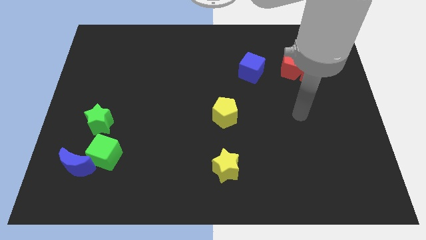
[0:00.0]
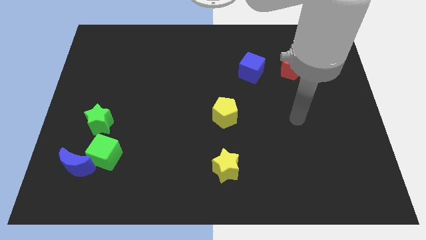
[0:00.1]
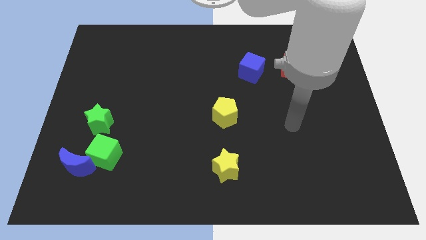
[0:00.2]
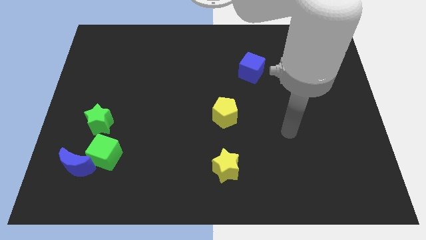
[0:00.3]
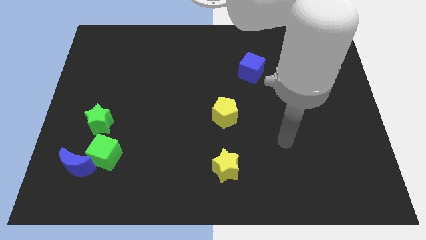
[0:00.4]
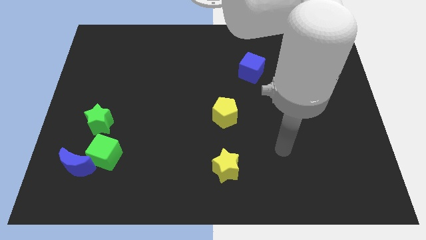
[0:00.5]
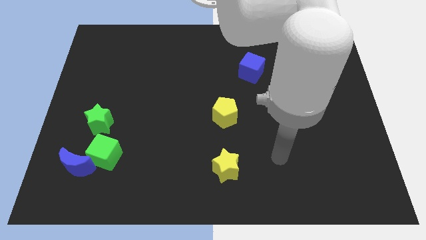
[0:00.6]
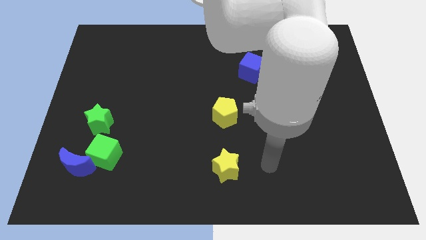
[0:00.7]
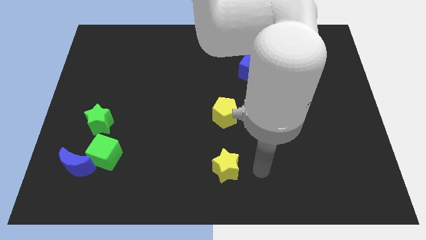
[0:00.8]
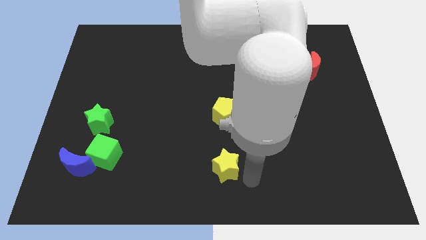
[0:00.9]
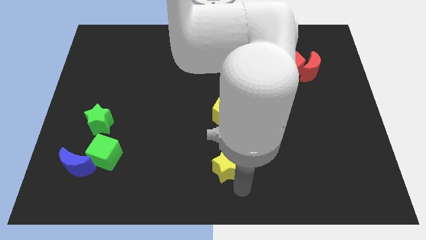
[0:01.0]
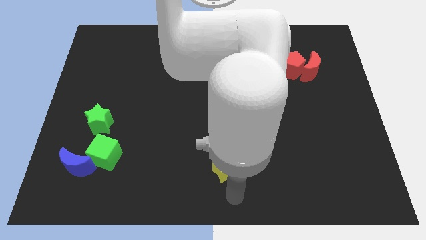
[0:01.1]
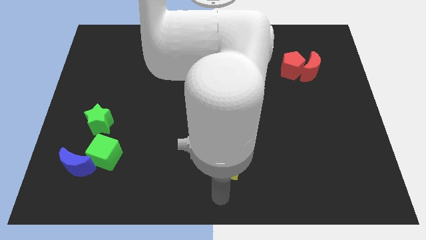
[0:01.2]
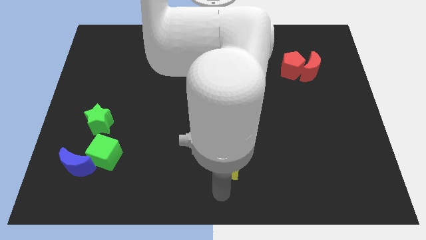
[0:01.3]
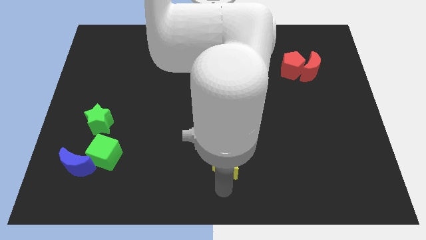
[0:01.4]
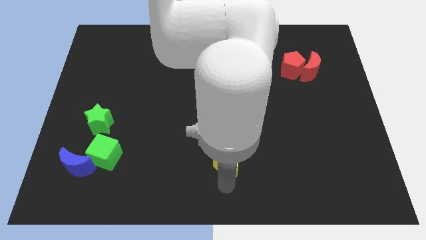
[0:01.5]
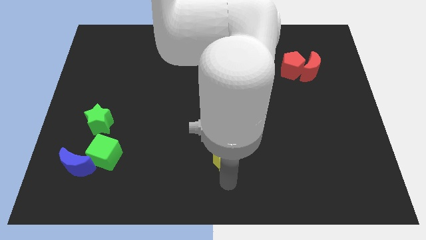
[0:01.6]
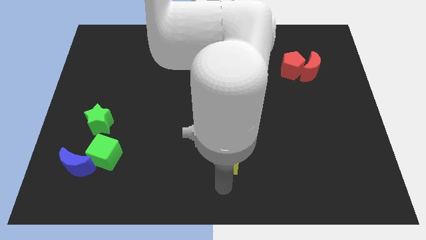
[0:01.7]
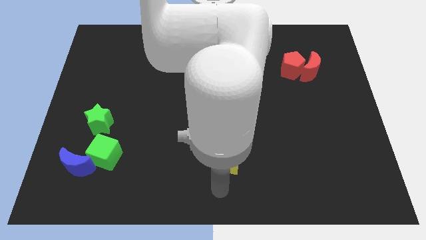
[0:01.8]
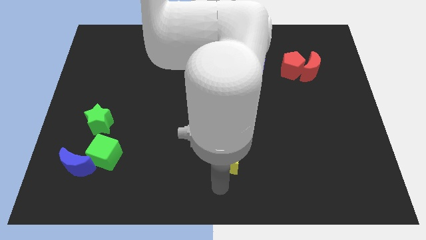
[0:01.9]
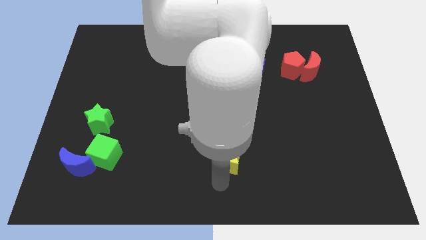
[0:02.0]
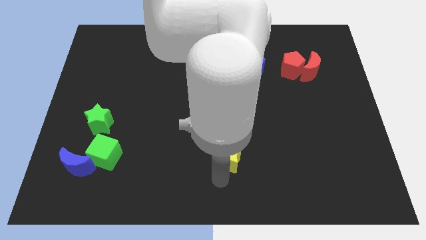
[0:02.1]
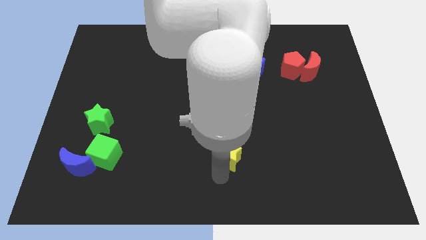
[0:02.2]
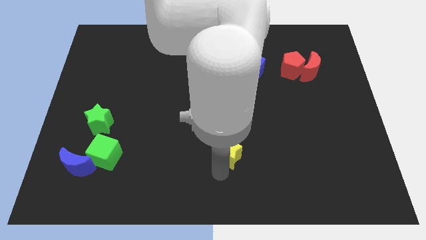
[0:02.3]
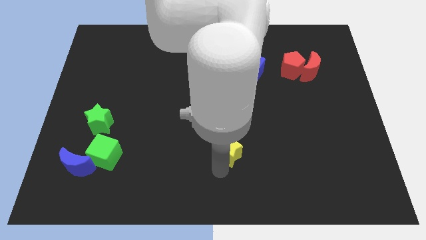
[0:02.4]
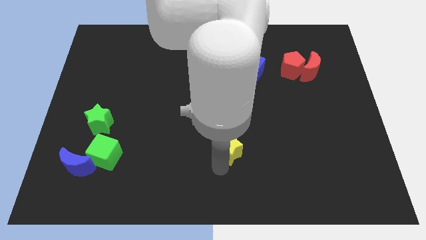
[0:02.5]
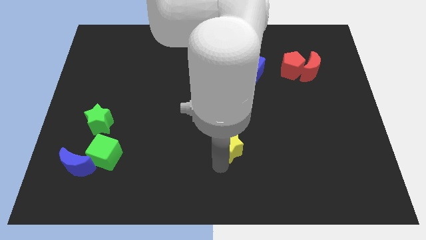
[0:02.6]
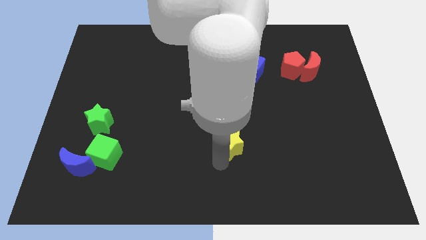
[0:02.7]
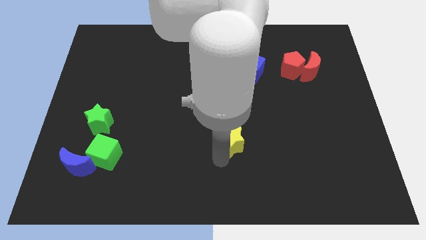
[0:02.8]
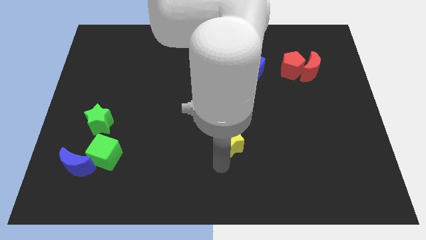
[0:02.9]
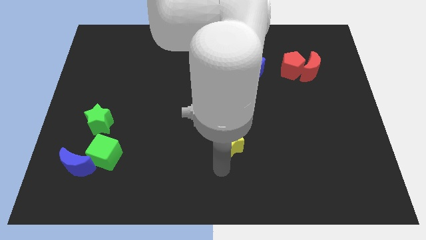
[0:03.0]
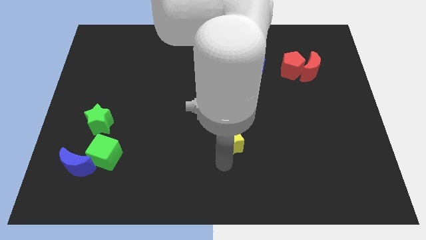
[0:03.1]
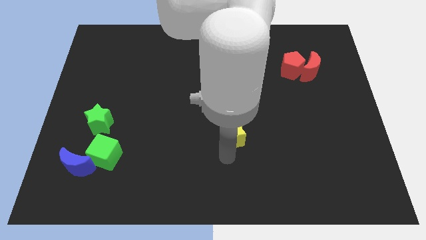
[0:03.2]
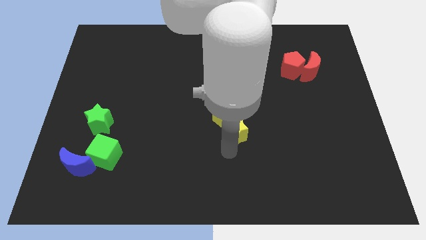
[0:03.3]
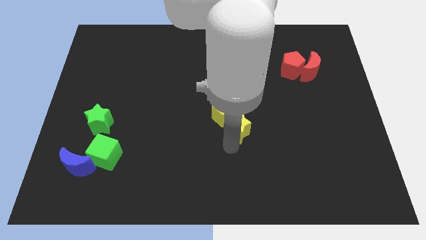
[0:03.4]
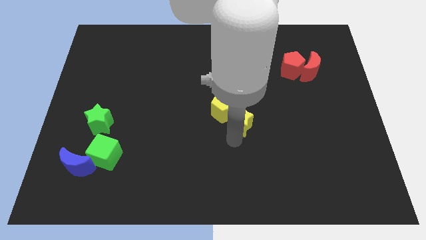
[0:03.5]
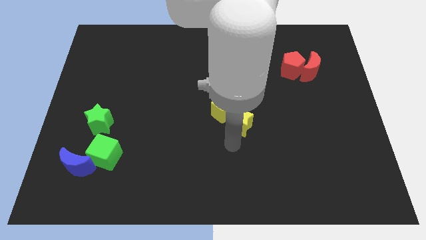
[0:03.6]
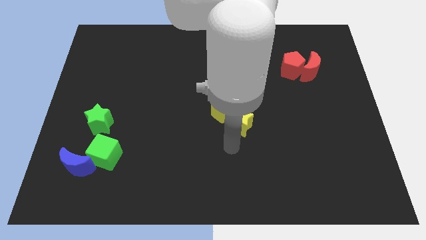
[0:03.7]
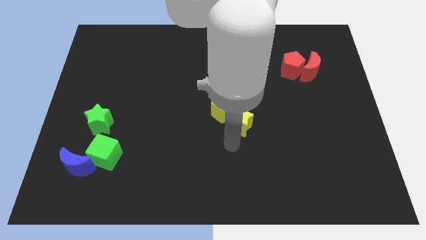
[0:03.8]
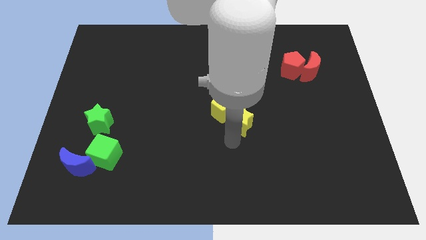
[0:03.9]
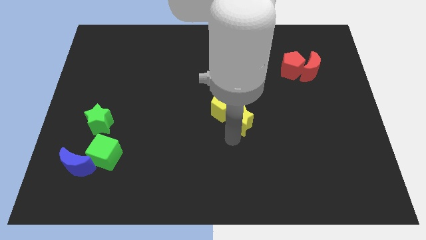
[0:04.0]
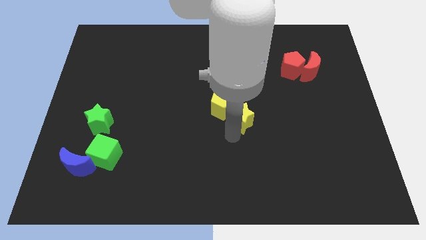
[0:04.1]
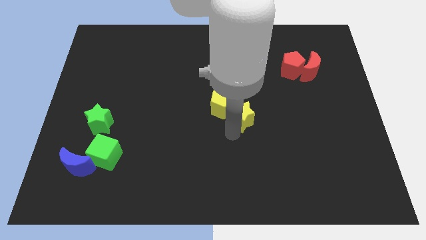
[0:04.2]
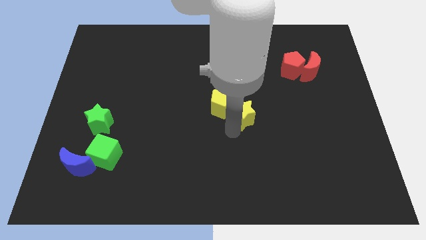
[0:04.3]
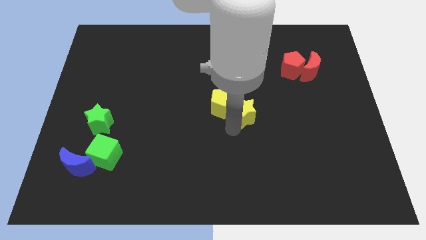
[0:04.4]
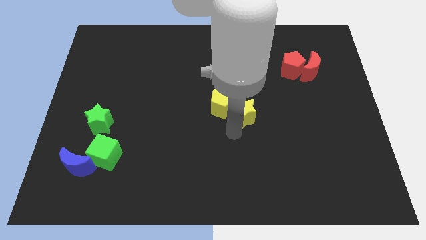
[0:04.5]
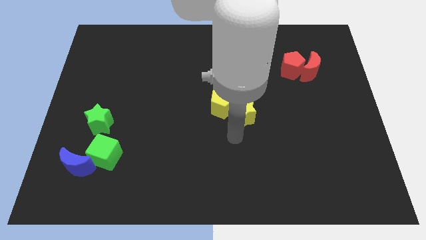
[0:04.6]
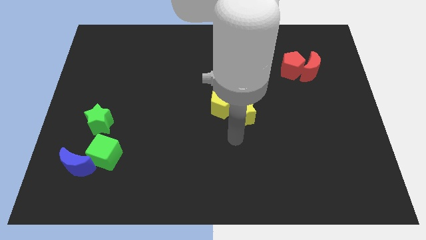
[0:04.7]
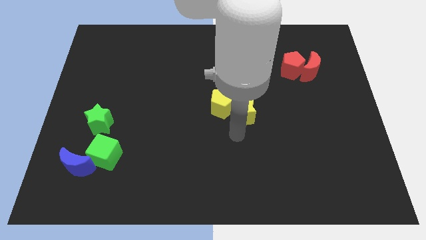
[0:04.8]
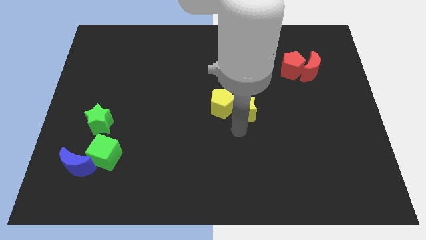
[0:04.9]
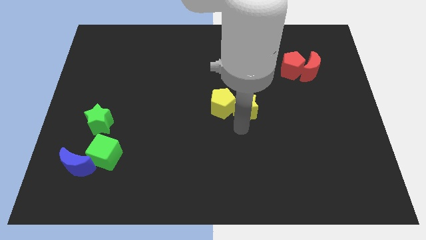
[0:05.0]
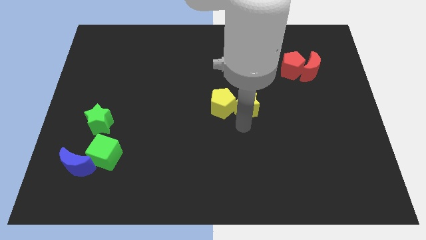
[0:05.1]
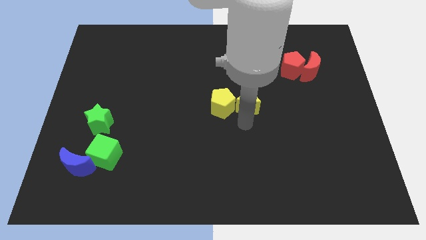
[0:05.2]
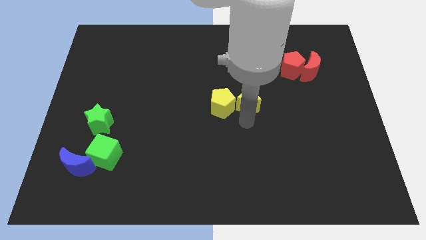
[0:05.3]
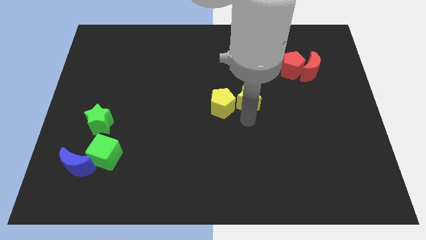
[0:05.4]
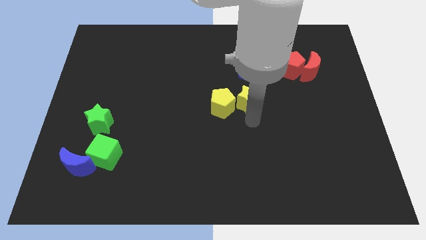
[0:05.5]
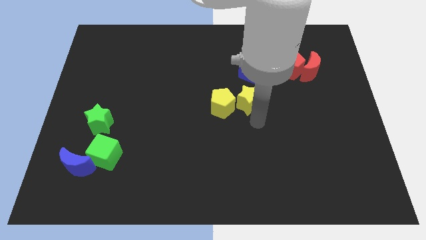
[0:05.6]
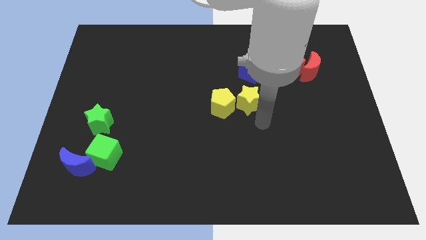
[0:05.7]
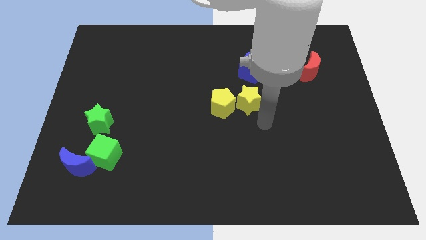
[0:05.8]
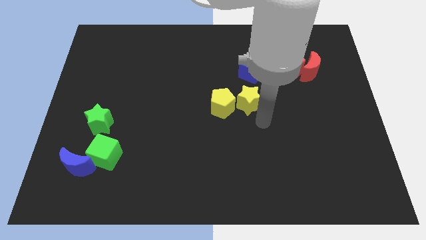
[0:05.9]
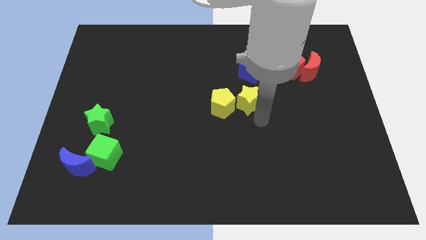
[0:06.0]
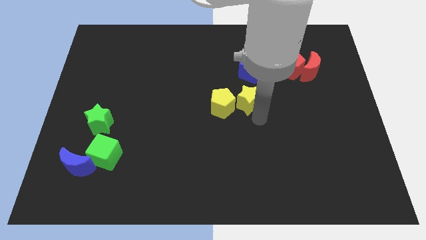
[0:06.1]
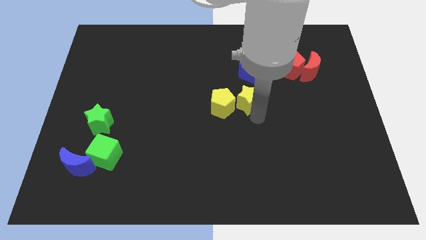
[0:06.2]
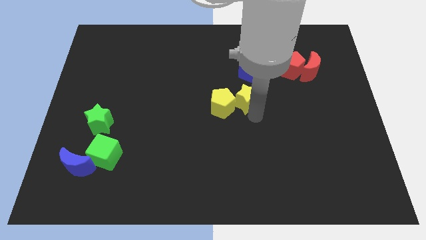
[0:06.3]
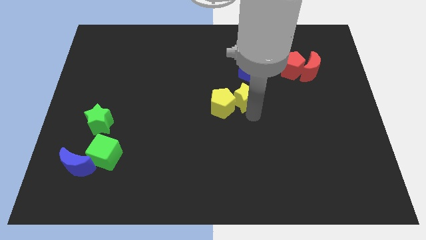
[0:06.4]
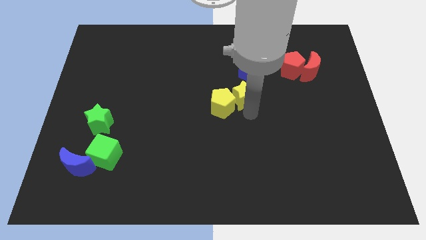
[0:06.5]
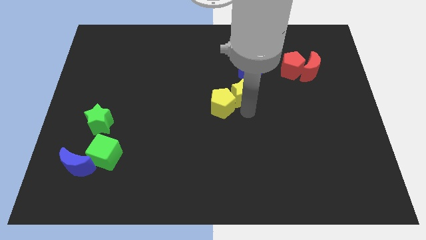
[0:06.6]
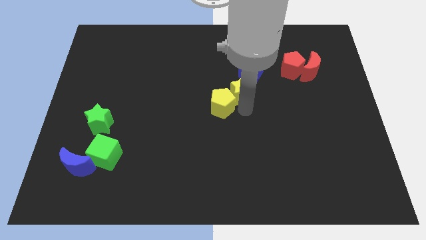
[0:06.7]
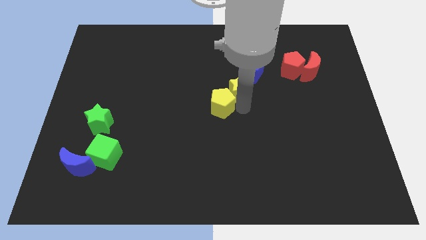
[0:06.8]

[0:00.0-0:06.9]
push the yellow star upwards

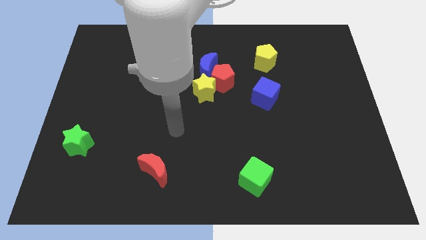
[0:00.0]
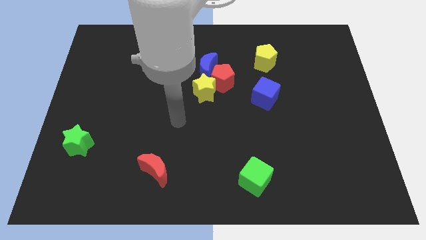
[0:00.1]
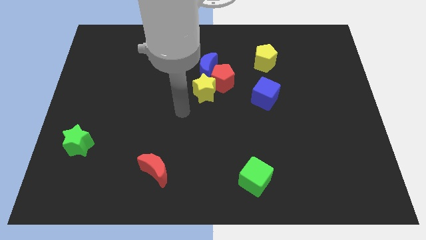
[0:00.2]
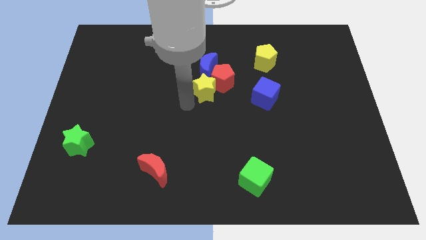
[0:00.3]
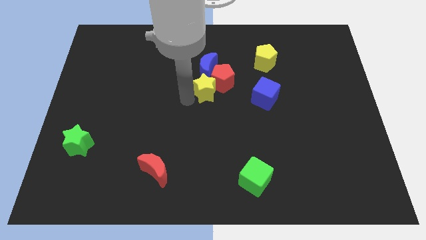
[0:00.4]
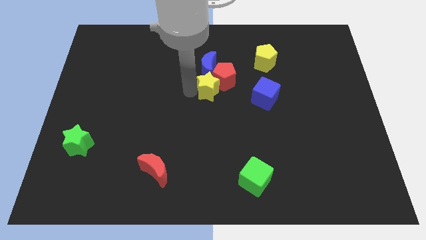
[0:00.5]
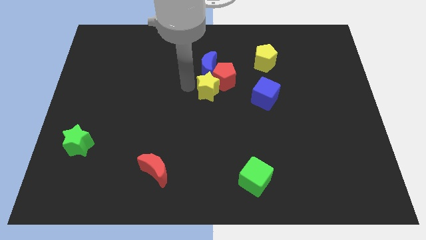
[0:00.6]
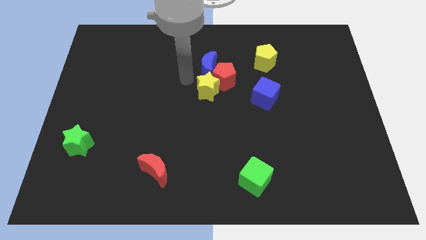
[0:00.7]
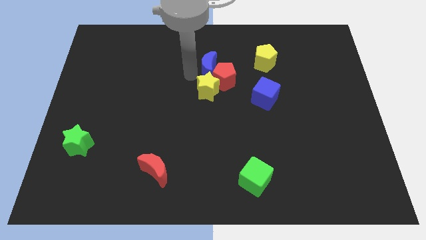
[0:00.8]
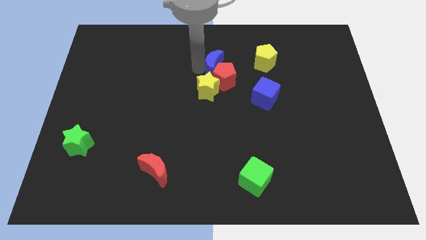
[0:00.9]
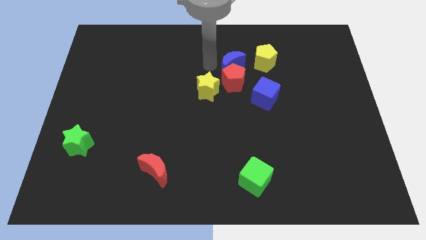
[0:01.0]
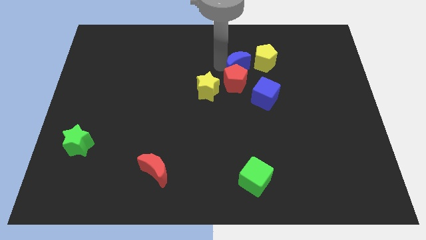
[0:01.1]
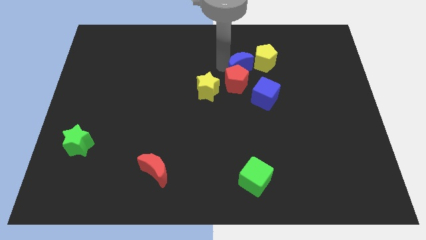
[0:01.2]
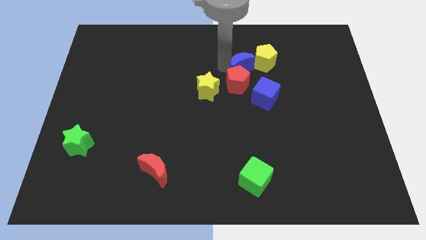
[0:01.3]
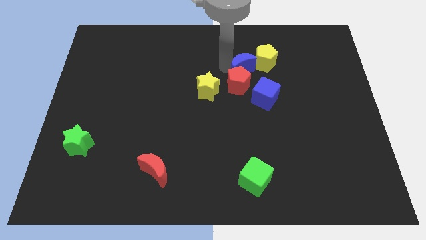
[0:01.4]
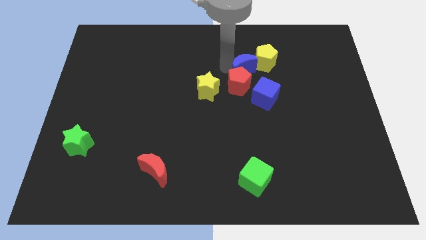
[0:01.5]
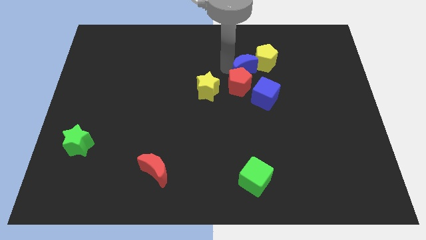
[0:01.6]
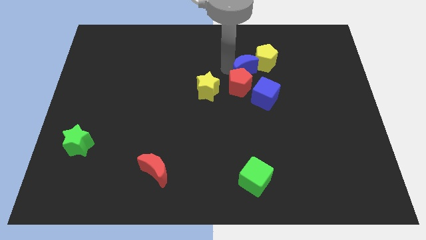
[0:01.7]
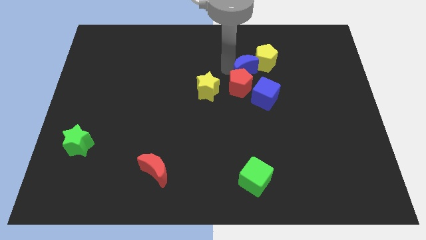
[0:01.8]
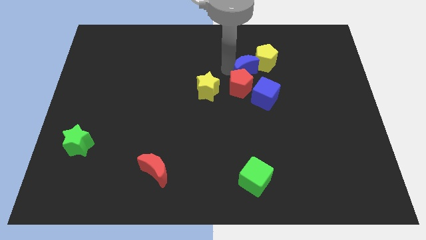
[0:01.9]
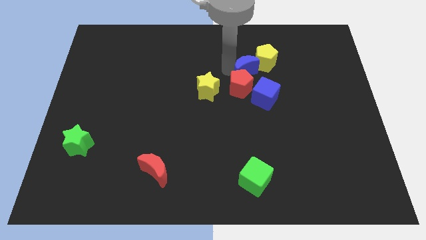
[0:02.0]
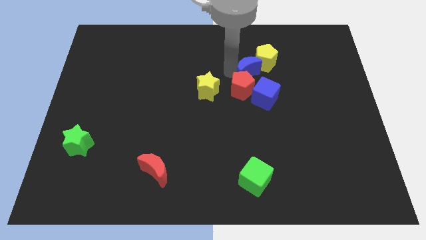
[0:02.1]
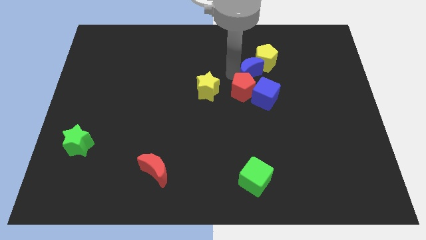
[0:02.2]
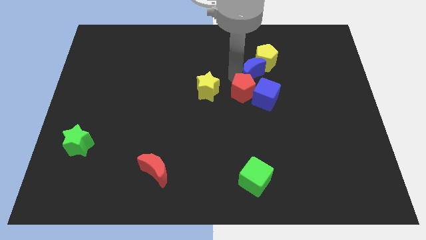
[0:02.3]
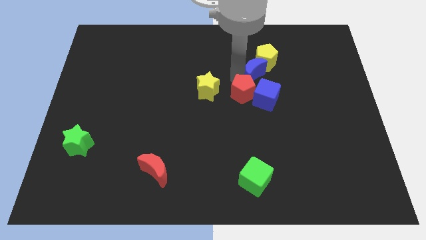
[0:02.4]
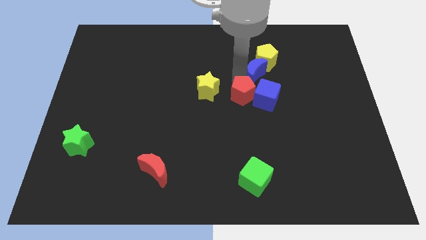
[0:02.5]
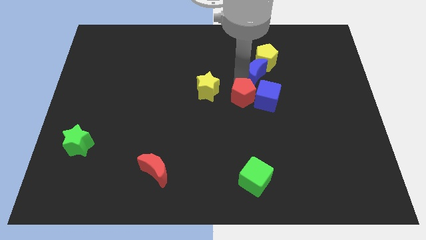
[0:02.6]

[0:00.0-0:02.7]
slightly slide the red pentagon down and right
